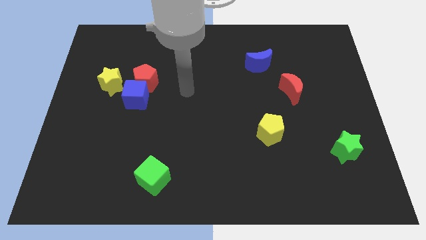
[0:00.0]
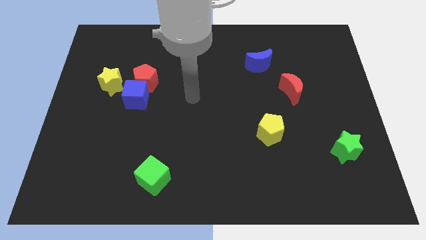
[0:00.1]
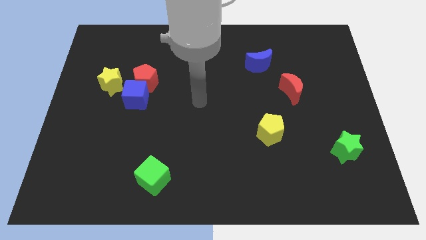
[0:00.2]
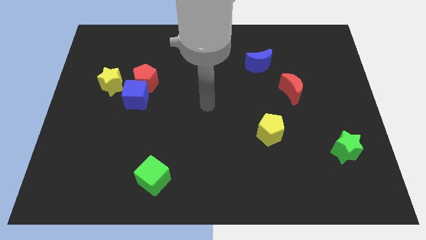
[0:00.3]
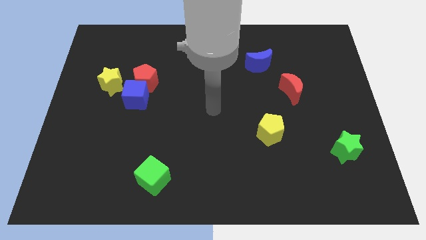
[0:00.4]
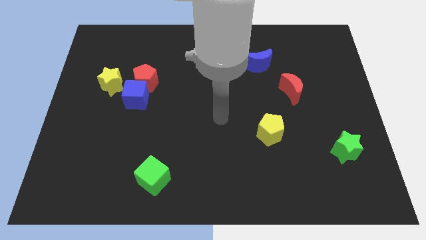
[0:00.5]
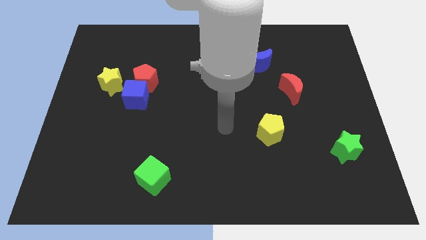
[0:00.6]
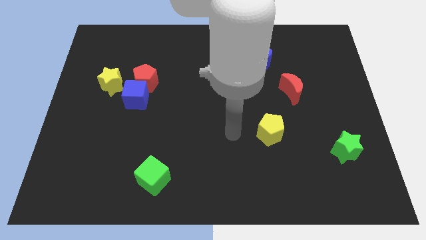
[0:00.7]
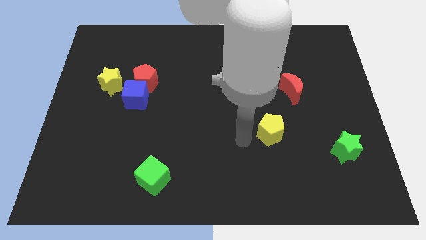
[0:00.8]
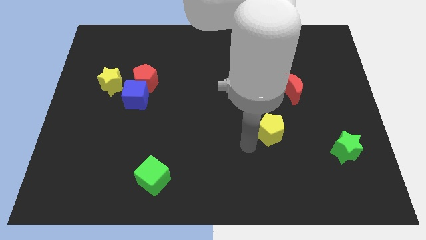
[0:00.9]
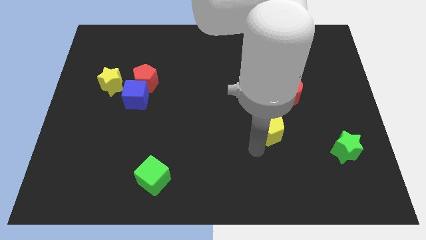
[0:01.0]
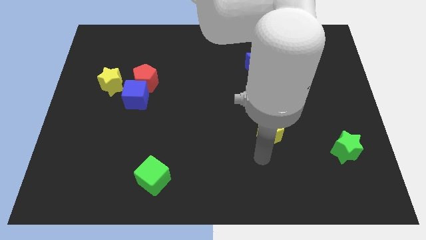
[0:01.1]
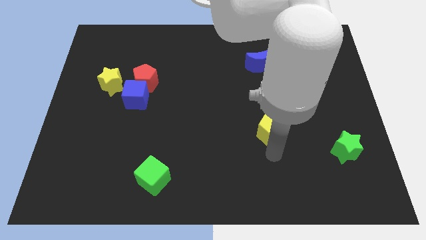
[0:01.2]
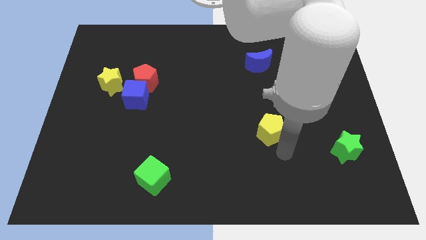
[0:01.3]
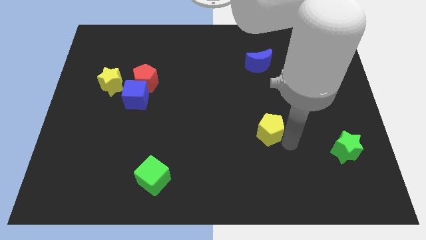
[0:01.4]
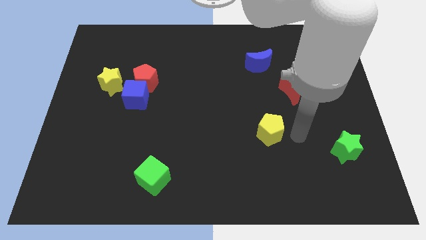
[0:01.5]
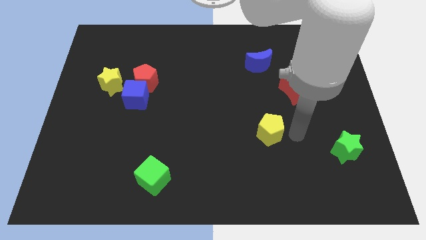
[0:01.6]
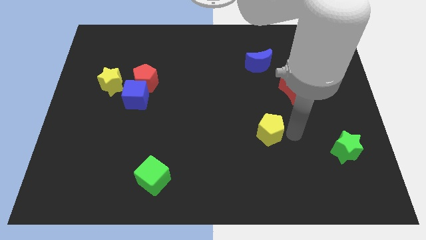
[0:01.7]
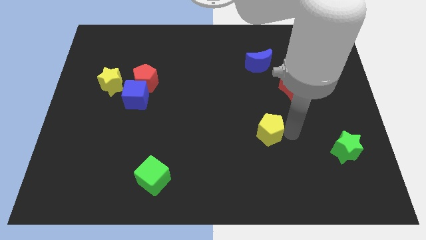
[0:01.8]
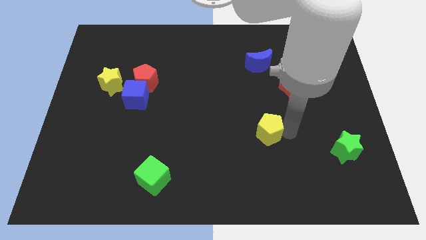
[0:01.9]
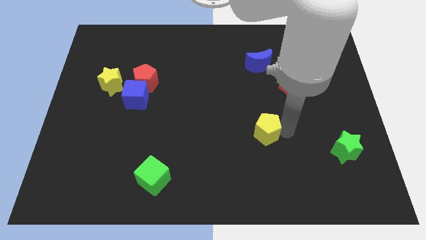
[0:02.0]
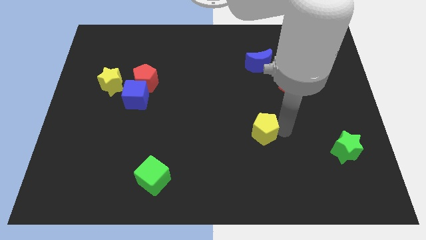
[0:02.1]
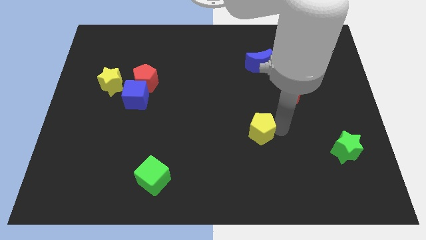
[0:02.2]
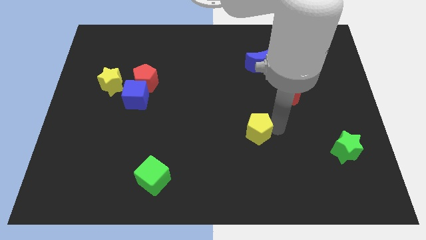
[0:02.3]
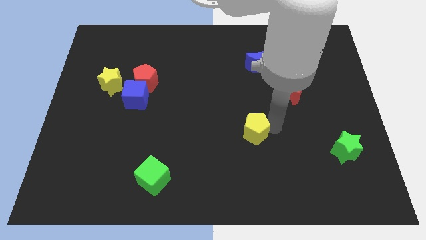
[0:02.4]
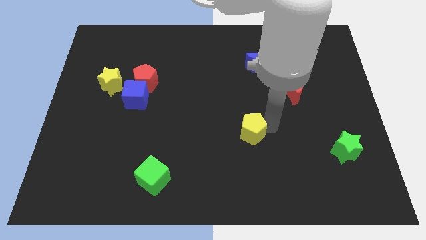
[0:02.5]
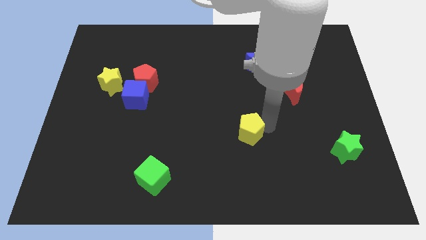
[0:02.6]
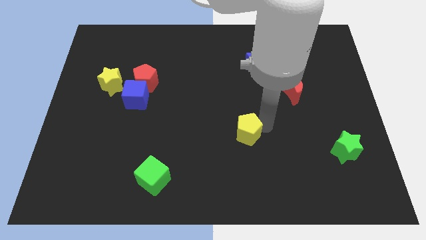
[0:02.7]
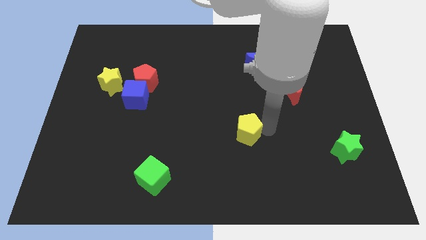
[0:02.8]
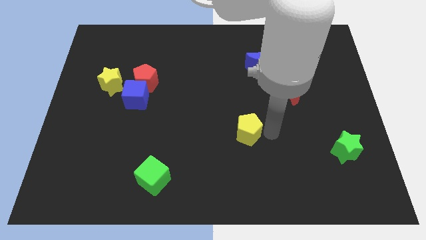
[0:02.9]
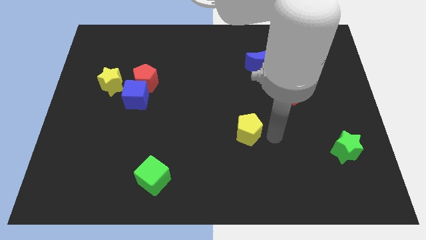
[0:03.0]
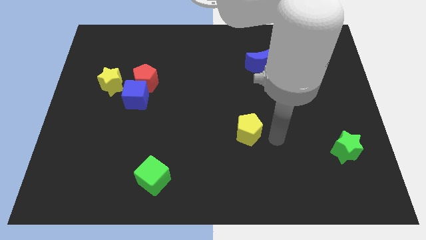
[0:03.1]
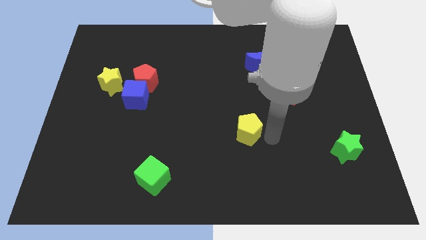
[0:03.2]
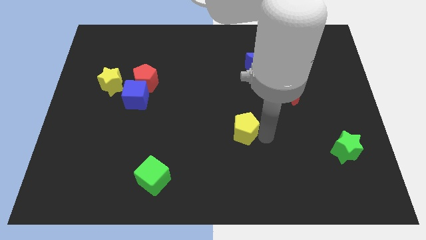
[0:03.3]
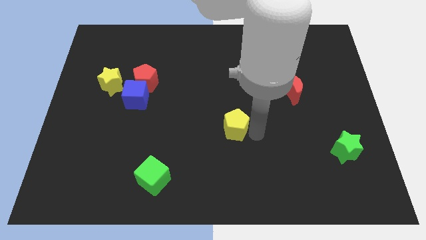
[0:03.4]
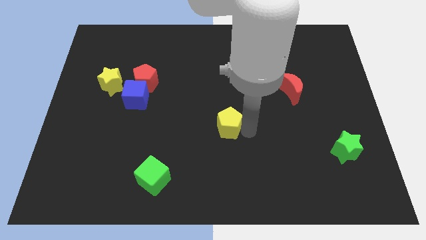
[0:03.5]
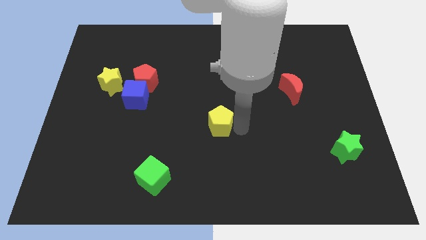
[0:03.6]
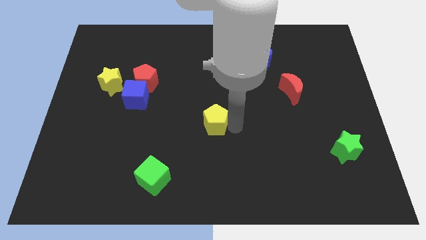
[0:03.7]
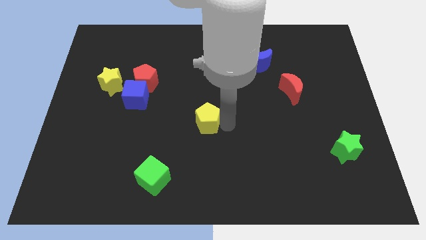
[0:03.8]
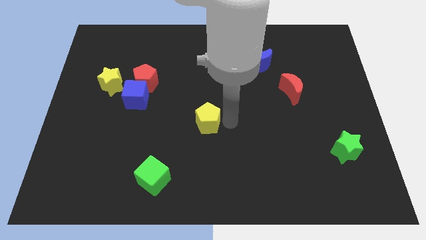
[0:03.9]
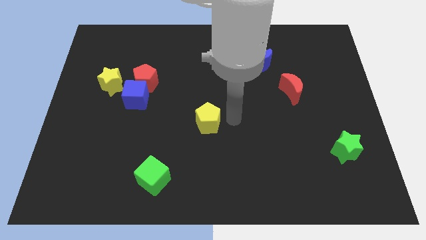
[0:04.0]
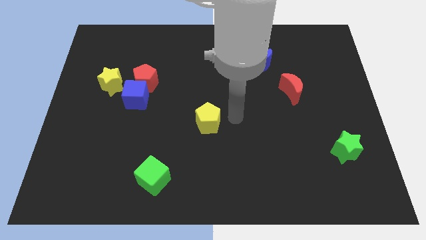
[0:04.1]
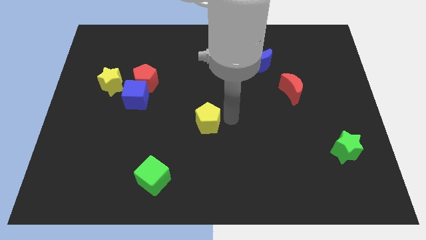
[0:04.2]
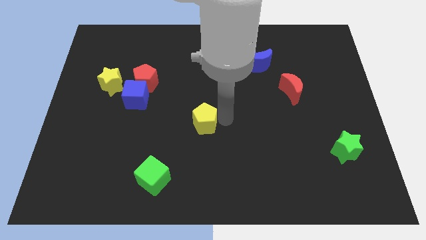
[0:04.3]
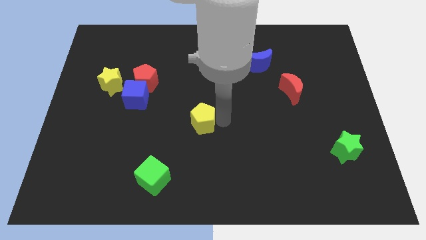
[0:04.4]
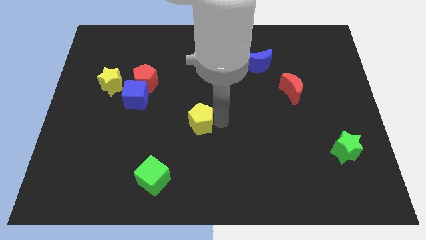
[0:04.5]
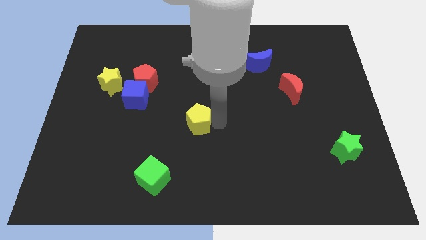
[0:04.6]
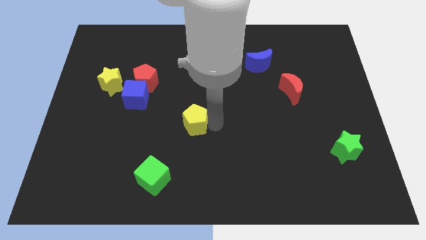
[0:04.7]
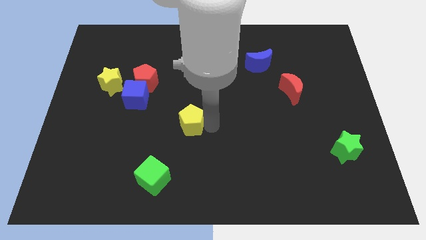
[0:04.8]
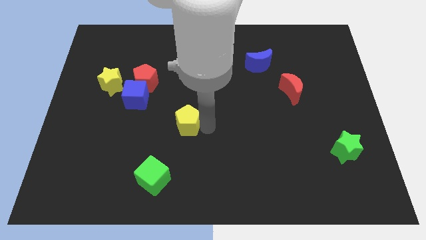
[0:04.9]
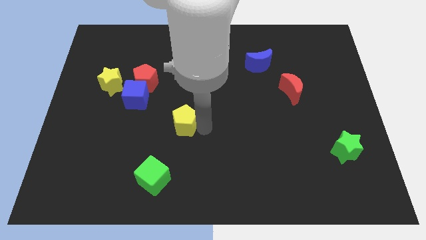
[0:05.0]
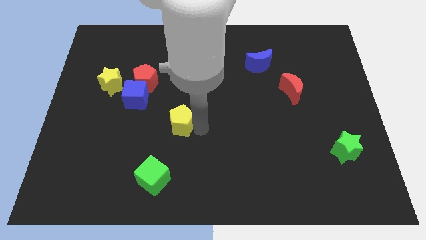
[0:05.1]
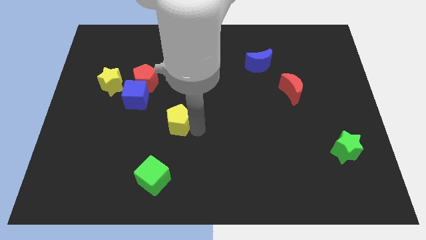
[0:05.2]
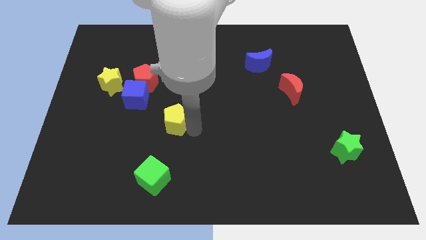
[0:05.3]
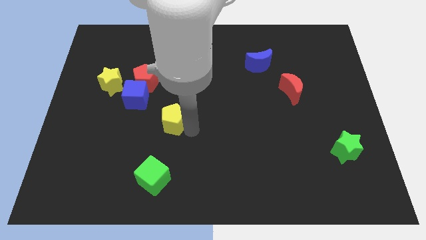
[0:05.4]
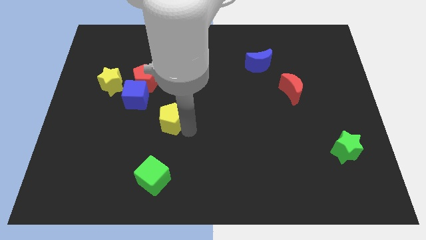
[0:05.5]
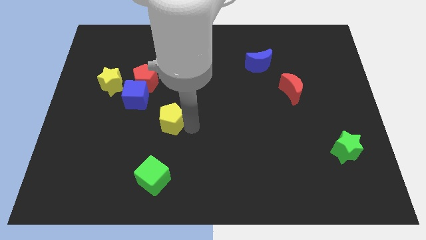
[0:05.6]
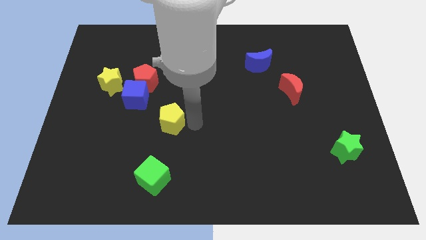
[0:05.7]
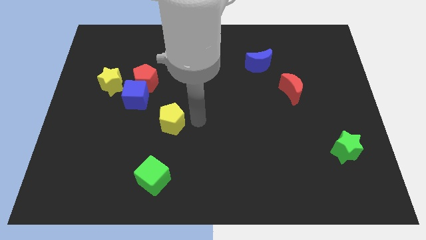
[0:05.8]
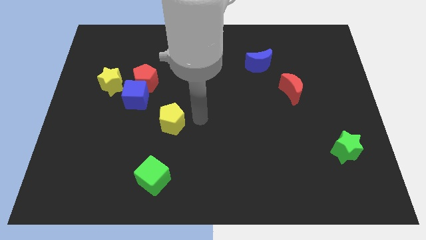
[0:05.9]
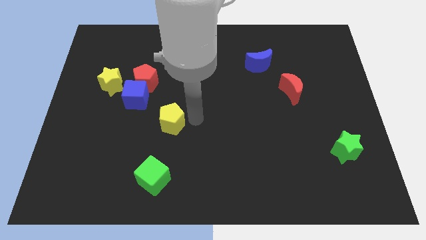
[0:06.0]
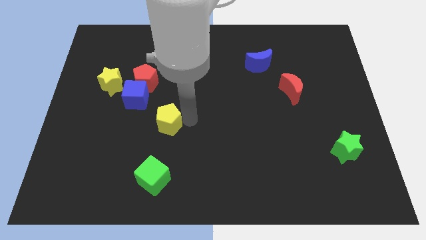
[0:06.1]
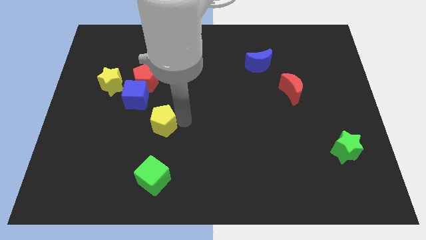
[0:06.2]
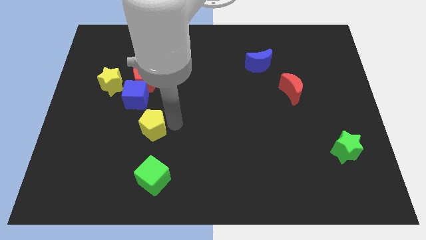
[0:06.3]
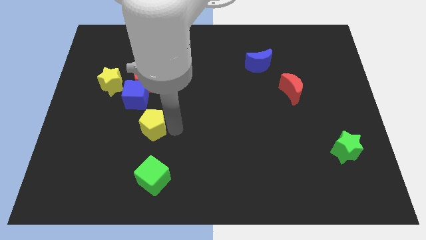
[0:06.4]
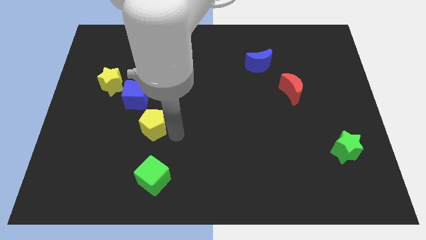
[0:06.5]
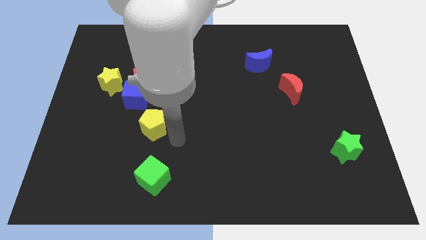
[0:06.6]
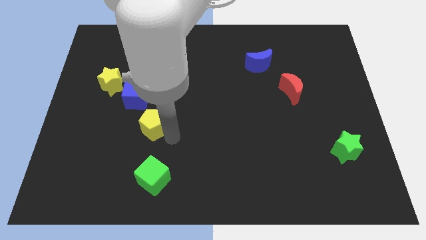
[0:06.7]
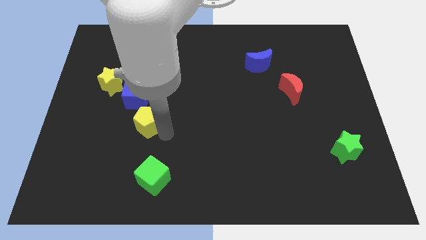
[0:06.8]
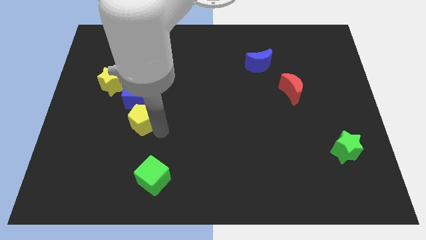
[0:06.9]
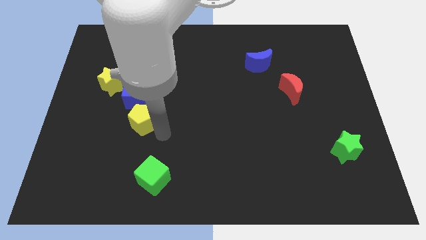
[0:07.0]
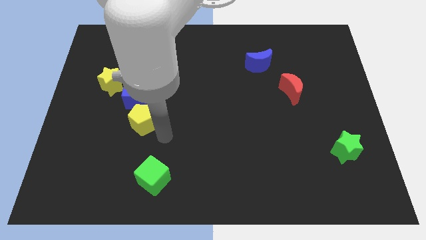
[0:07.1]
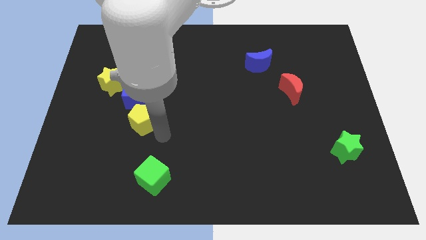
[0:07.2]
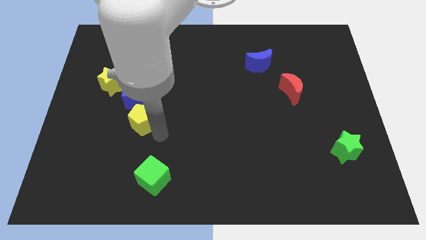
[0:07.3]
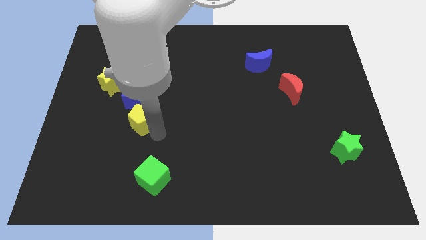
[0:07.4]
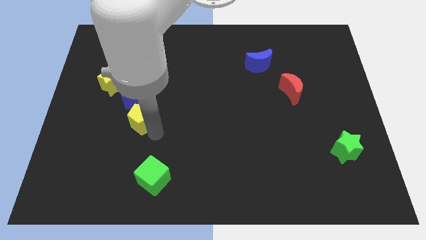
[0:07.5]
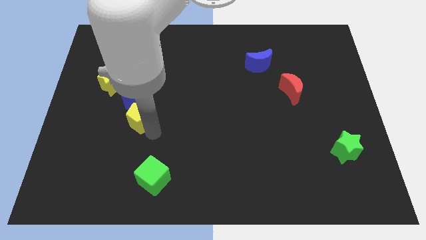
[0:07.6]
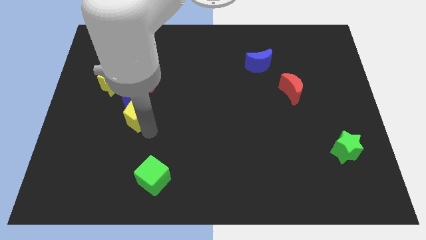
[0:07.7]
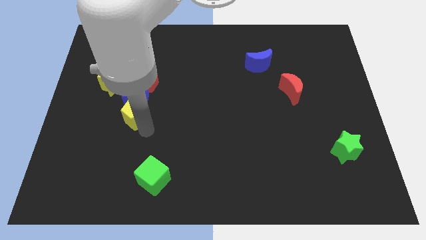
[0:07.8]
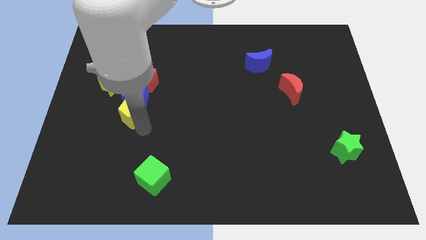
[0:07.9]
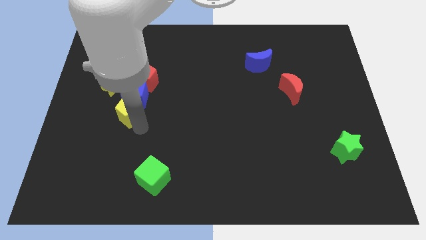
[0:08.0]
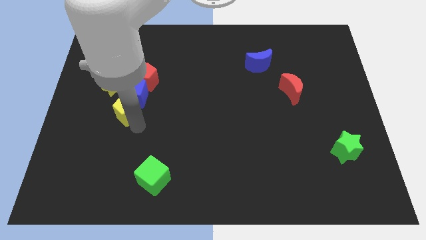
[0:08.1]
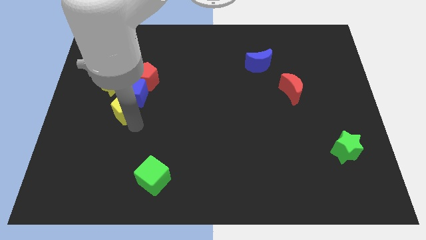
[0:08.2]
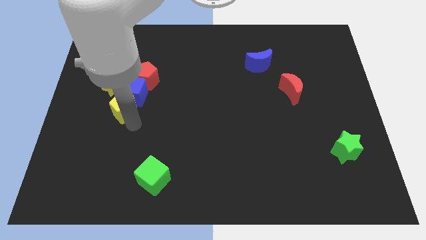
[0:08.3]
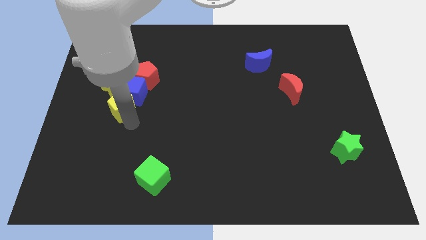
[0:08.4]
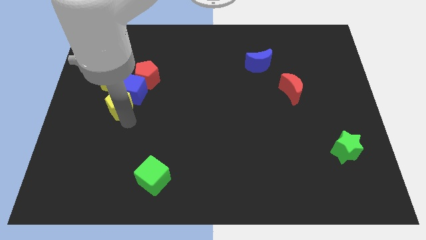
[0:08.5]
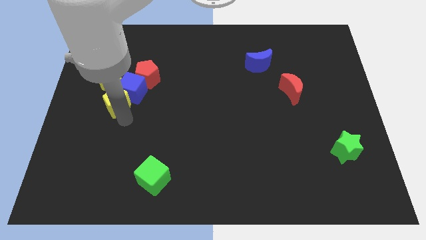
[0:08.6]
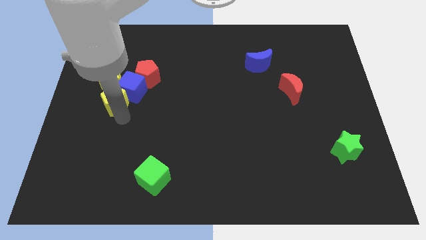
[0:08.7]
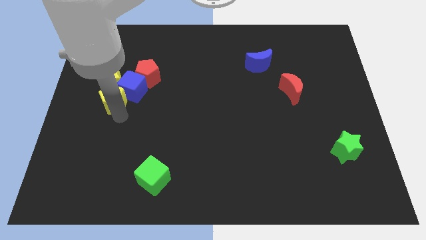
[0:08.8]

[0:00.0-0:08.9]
slide the yellow pentagon close to the yellow star
